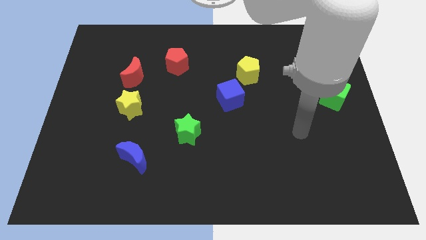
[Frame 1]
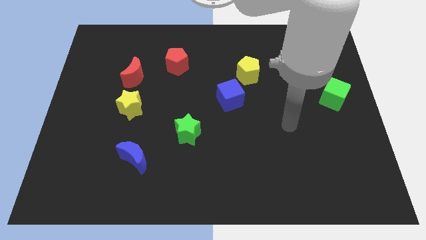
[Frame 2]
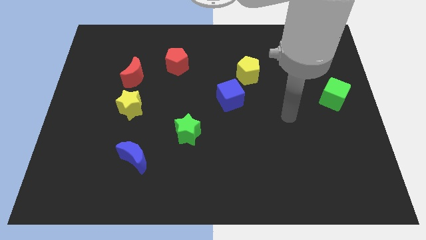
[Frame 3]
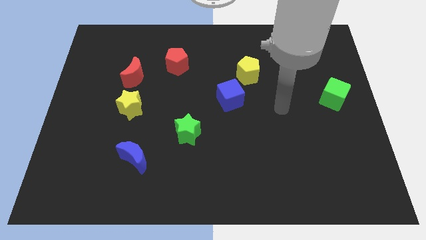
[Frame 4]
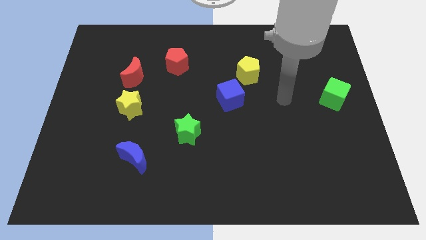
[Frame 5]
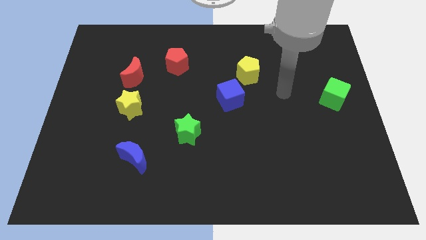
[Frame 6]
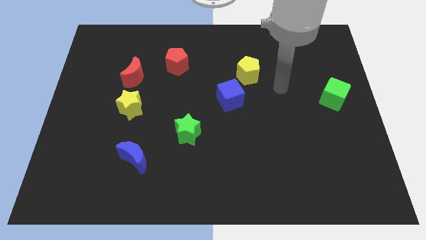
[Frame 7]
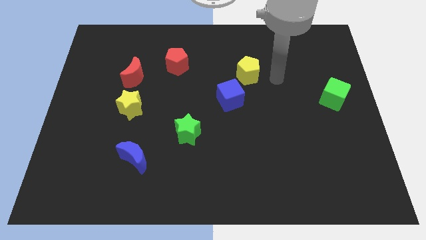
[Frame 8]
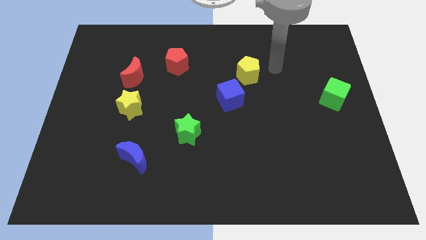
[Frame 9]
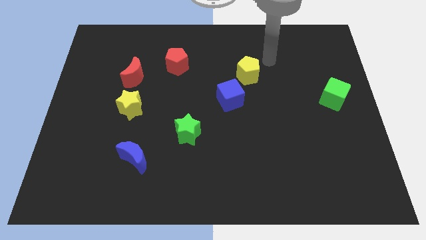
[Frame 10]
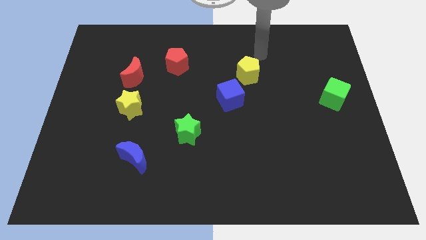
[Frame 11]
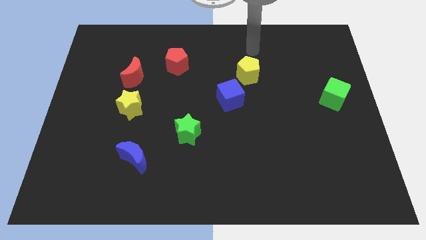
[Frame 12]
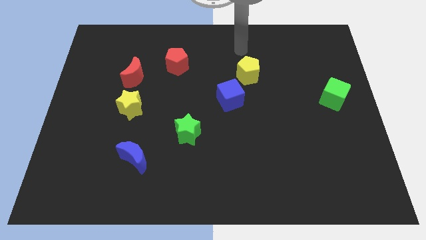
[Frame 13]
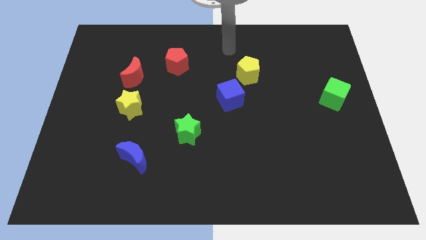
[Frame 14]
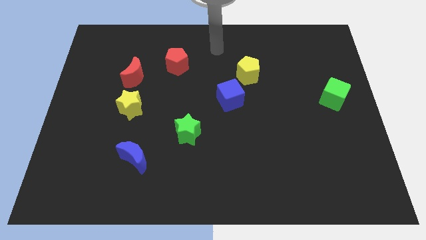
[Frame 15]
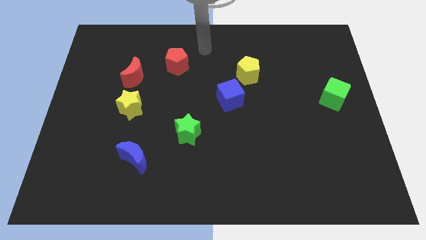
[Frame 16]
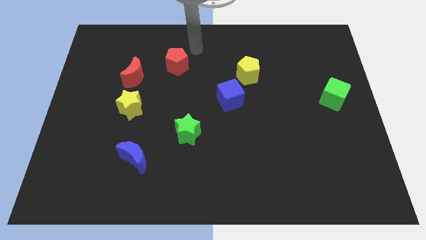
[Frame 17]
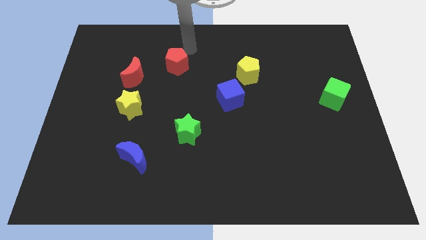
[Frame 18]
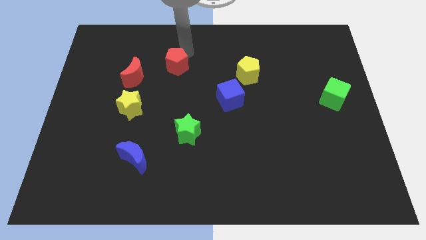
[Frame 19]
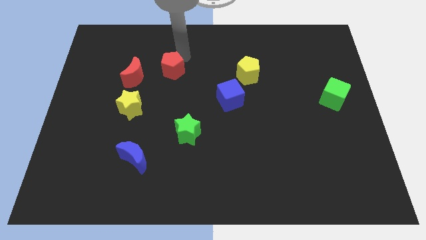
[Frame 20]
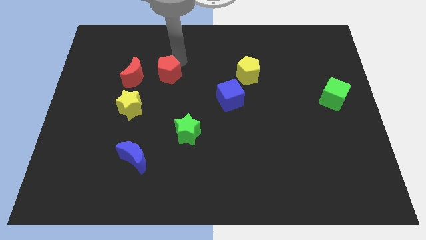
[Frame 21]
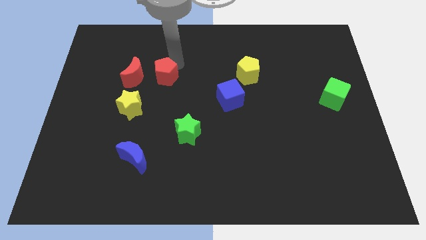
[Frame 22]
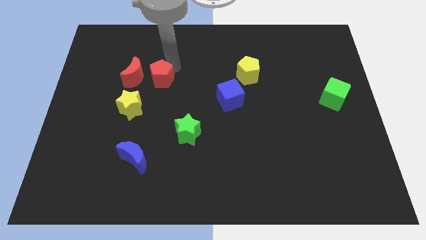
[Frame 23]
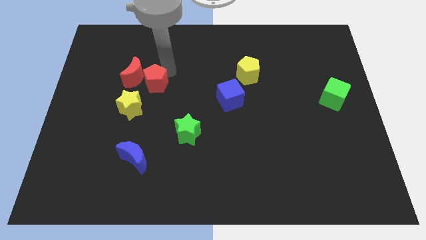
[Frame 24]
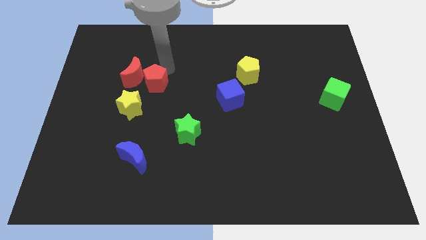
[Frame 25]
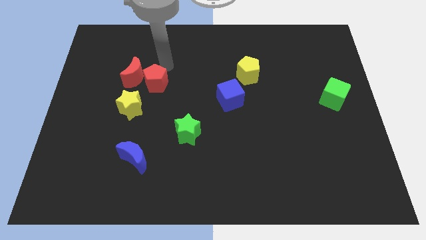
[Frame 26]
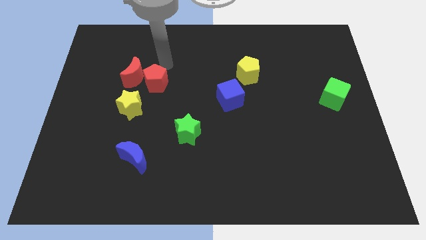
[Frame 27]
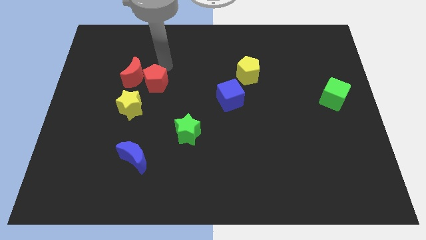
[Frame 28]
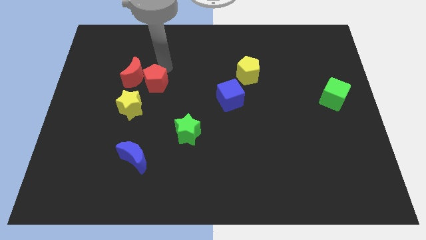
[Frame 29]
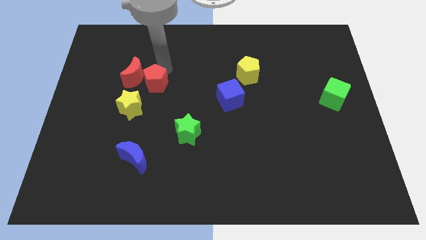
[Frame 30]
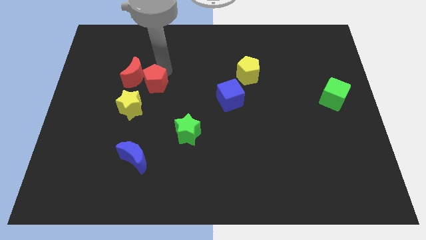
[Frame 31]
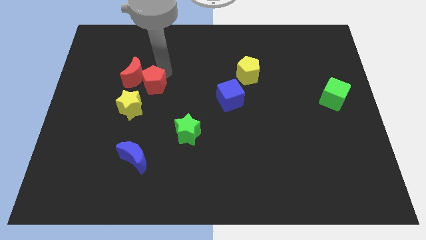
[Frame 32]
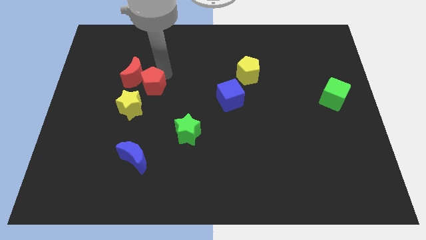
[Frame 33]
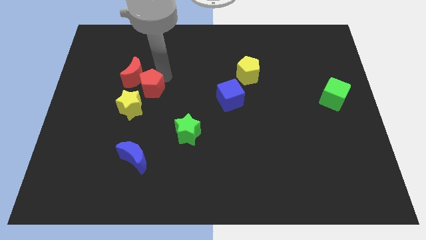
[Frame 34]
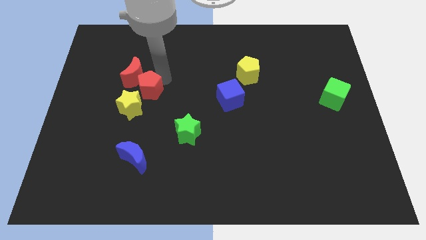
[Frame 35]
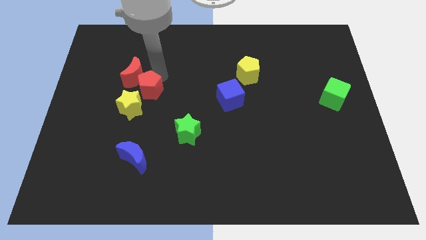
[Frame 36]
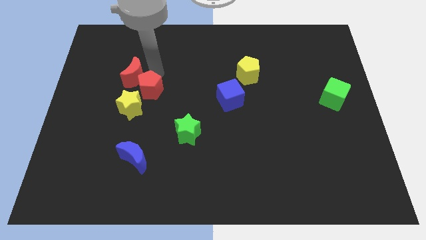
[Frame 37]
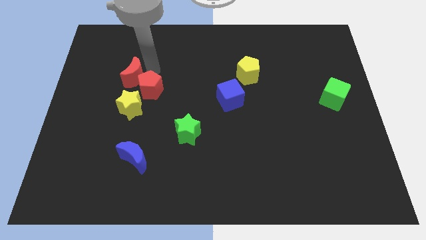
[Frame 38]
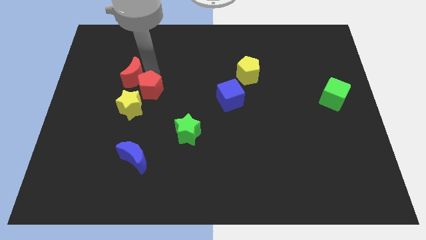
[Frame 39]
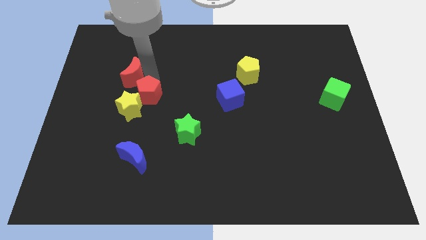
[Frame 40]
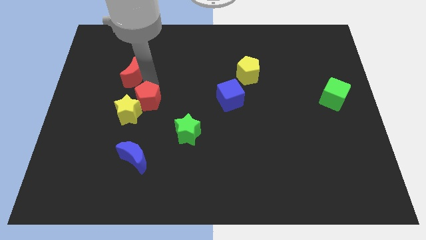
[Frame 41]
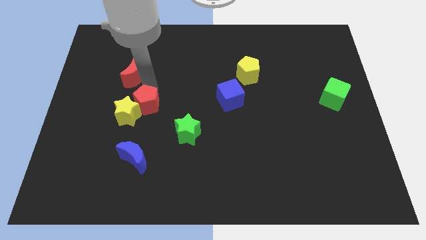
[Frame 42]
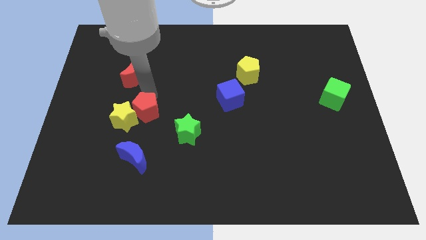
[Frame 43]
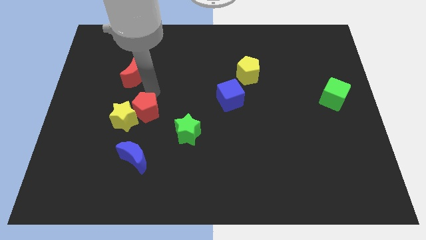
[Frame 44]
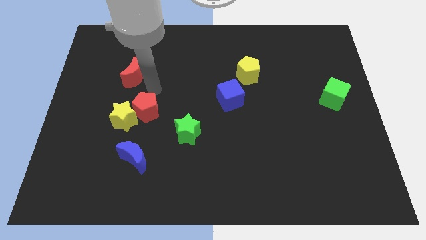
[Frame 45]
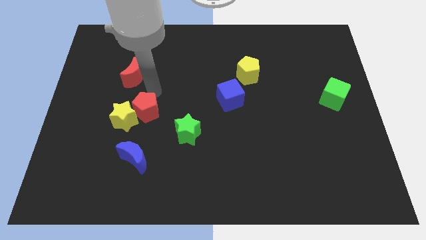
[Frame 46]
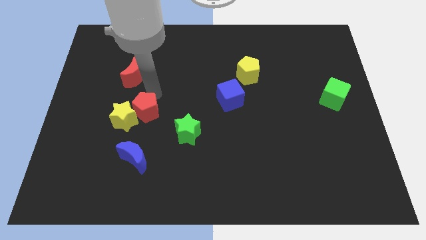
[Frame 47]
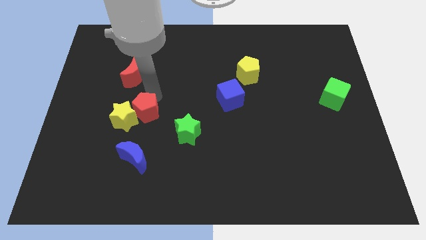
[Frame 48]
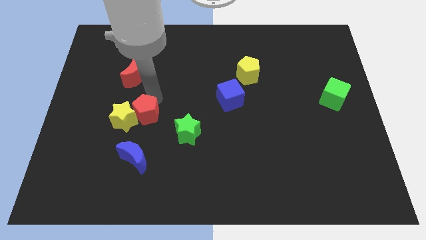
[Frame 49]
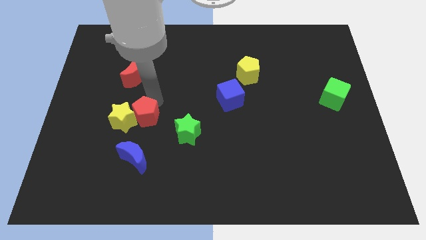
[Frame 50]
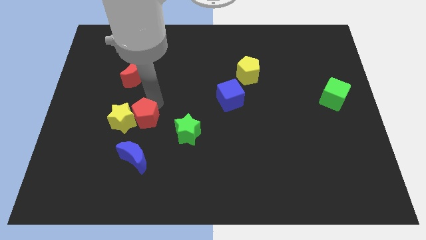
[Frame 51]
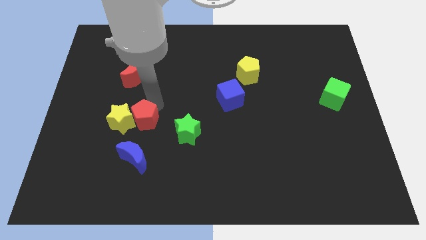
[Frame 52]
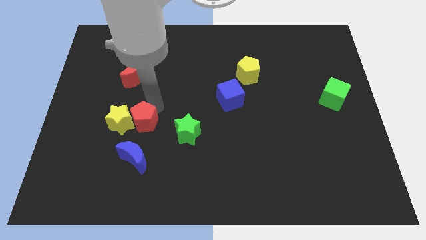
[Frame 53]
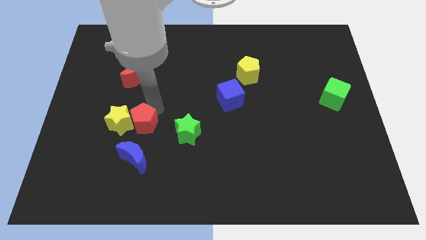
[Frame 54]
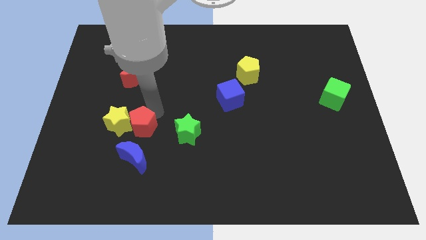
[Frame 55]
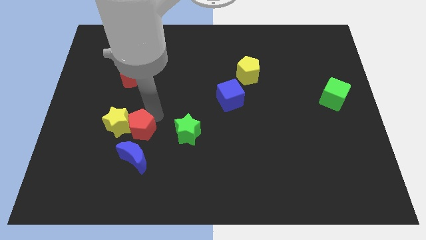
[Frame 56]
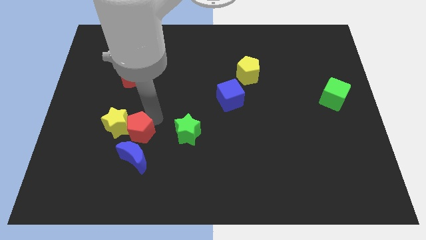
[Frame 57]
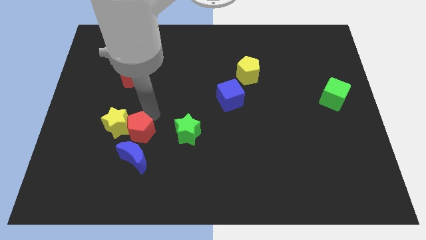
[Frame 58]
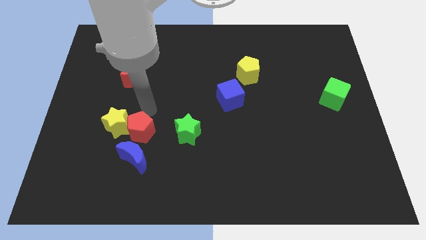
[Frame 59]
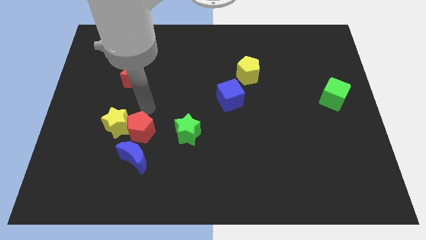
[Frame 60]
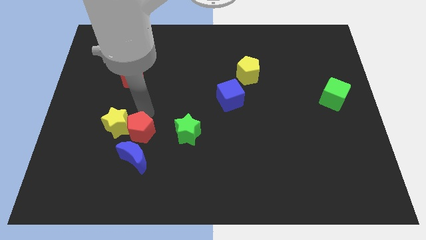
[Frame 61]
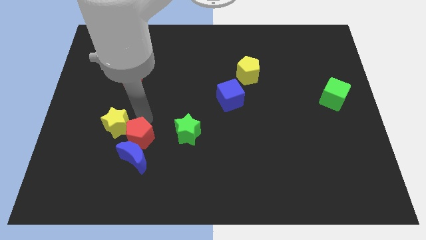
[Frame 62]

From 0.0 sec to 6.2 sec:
put the red pentagon close to the blue moon

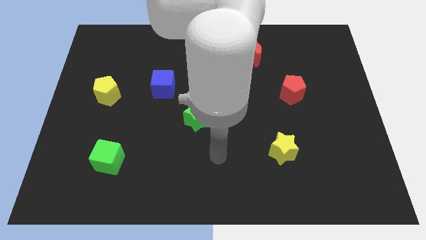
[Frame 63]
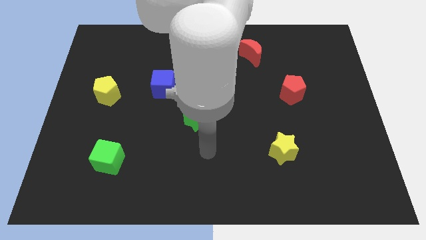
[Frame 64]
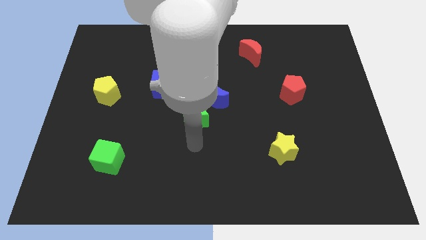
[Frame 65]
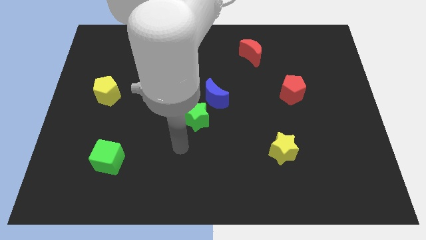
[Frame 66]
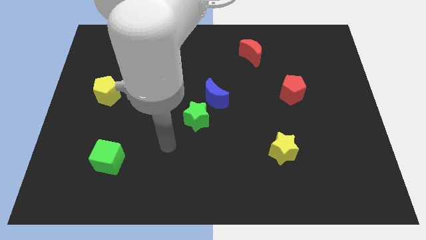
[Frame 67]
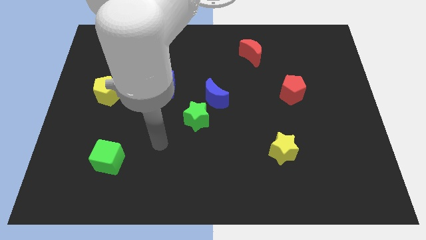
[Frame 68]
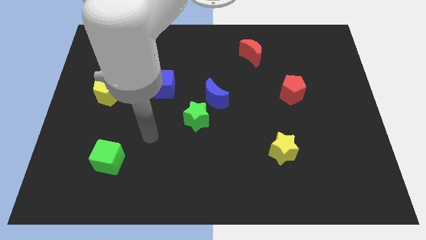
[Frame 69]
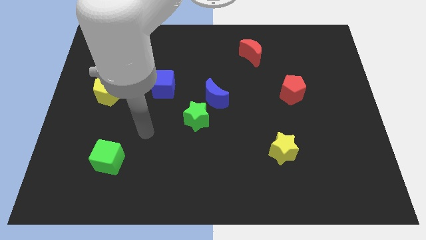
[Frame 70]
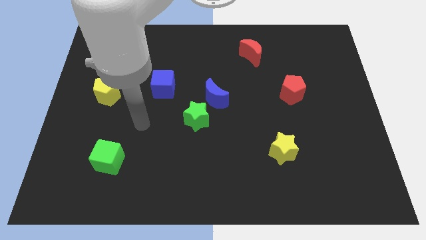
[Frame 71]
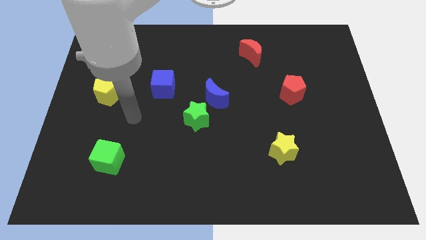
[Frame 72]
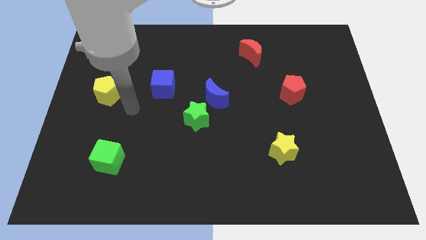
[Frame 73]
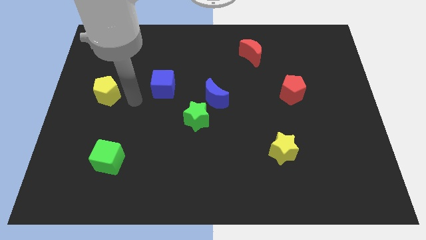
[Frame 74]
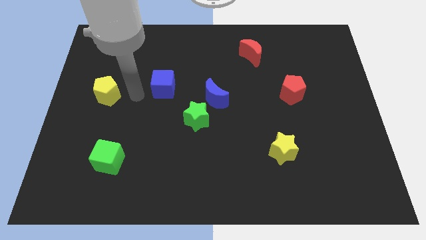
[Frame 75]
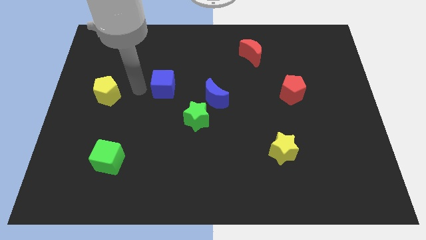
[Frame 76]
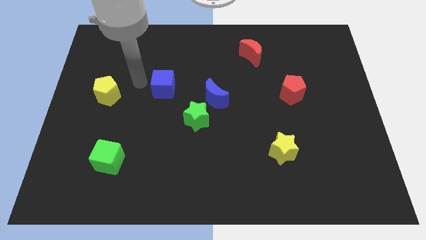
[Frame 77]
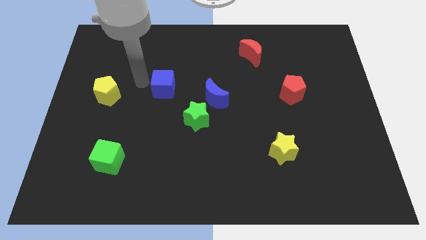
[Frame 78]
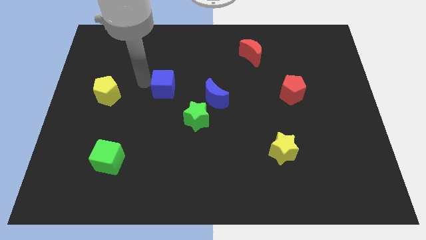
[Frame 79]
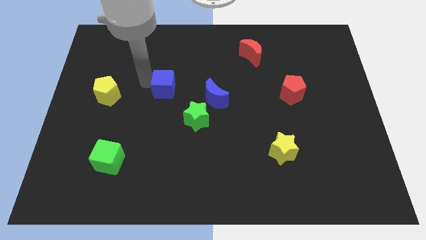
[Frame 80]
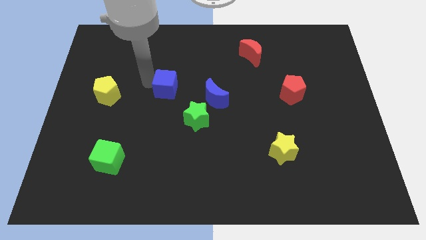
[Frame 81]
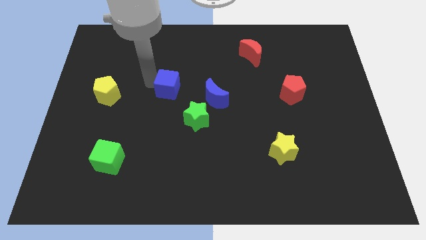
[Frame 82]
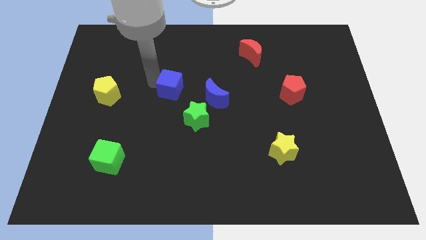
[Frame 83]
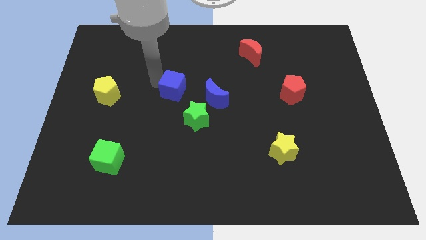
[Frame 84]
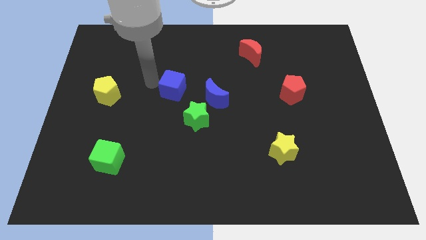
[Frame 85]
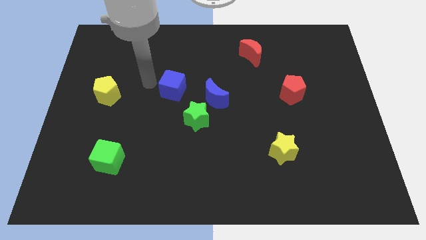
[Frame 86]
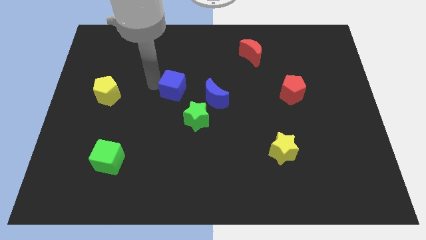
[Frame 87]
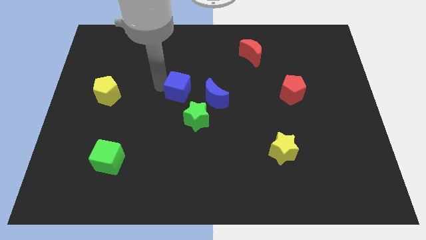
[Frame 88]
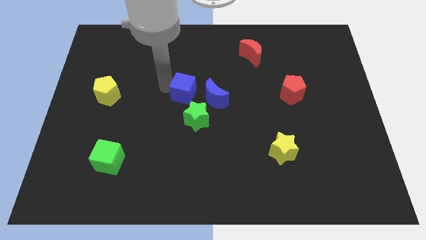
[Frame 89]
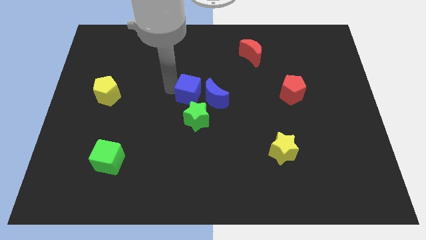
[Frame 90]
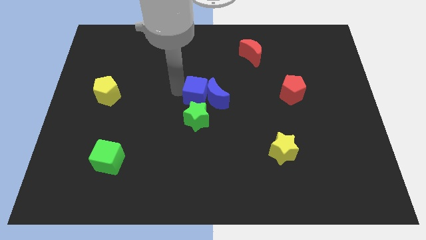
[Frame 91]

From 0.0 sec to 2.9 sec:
put the blue cube close to the blue moon
